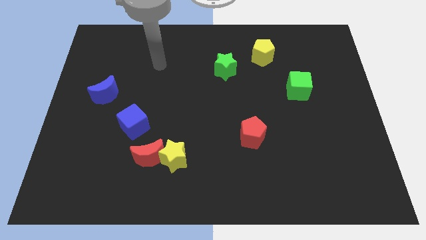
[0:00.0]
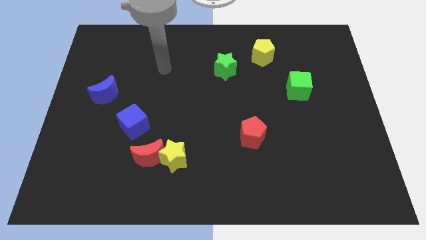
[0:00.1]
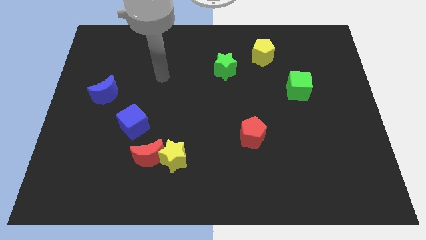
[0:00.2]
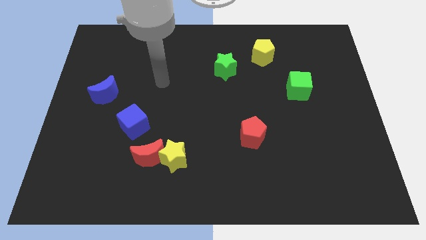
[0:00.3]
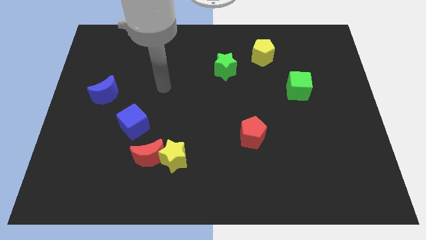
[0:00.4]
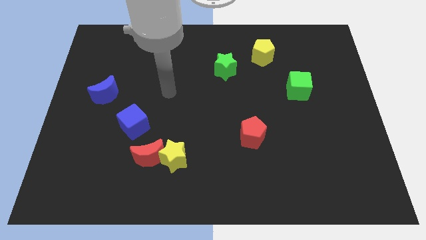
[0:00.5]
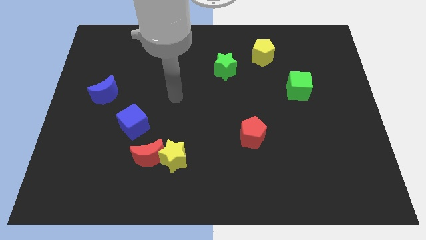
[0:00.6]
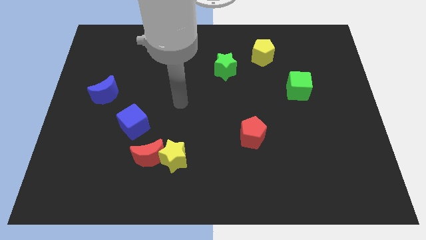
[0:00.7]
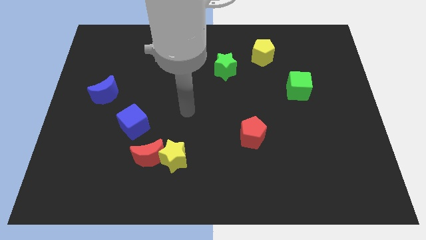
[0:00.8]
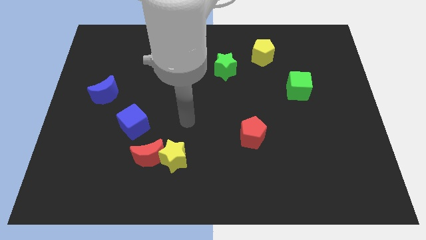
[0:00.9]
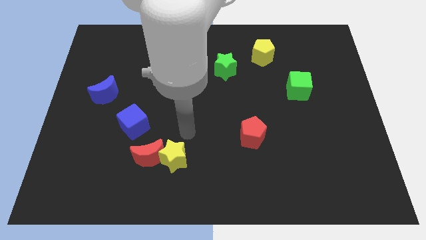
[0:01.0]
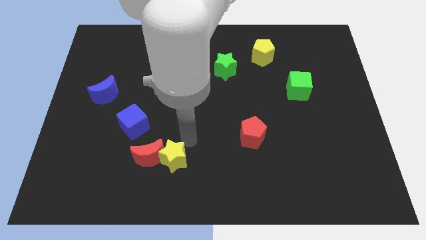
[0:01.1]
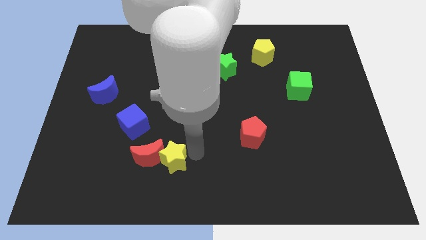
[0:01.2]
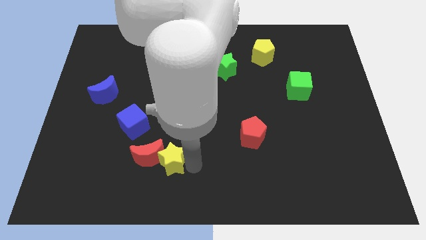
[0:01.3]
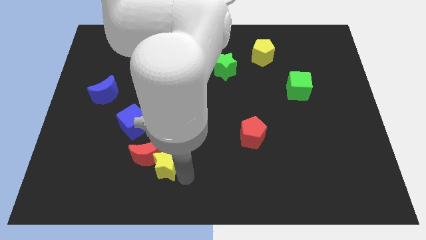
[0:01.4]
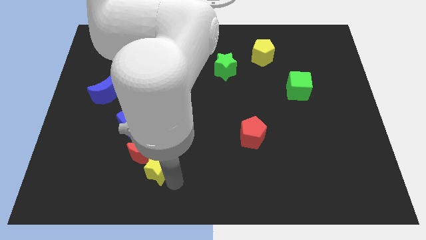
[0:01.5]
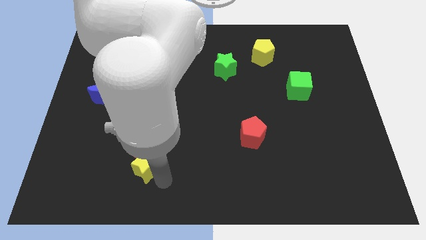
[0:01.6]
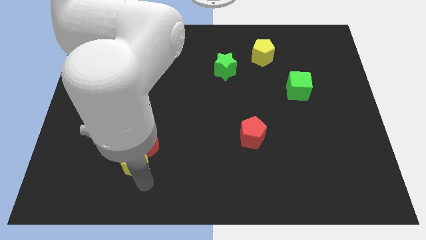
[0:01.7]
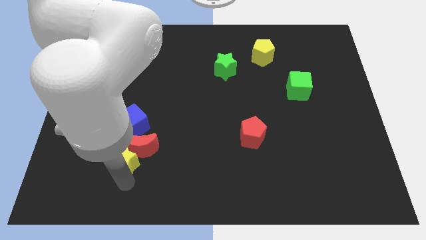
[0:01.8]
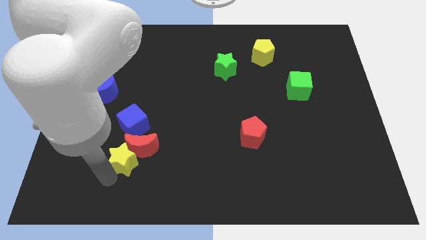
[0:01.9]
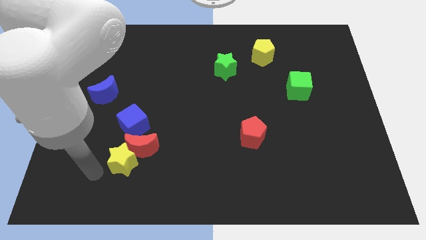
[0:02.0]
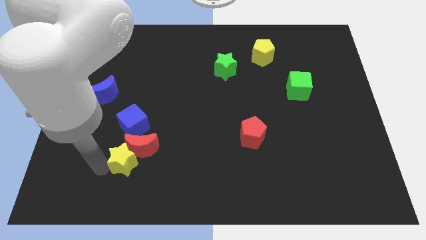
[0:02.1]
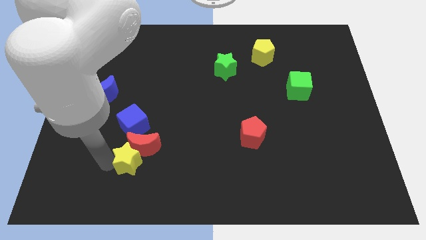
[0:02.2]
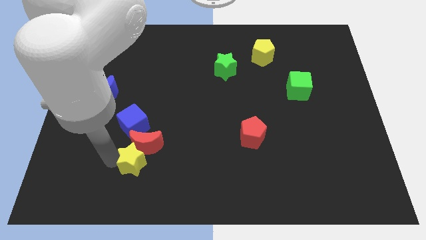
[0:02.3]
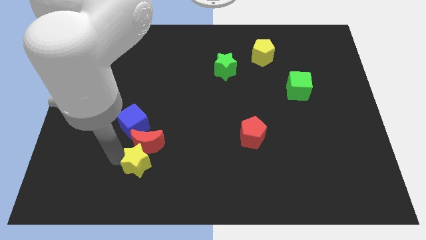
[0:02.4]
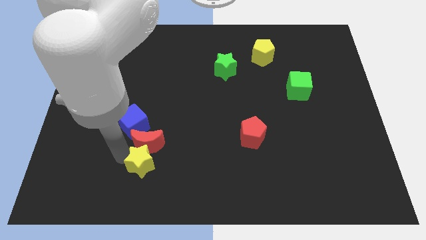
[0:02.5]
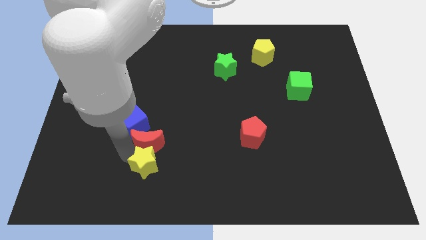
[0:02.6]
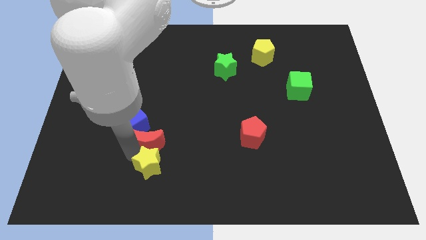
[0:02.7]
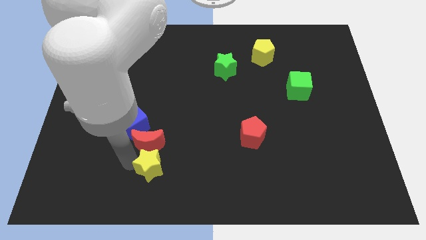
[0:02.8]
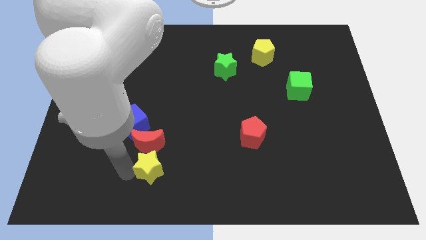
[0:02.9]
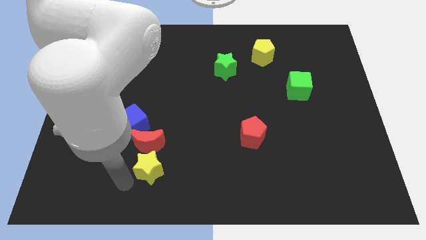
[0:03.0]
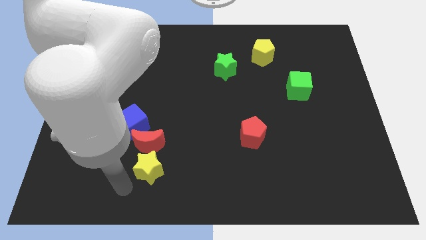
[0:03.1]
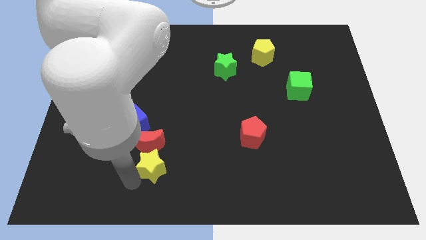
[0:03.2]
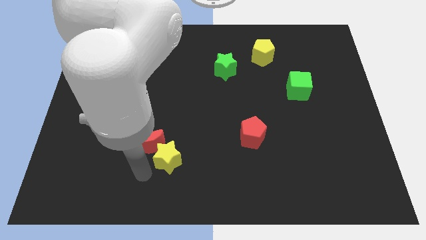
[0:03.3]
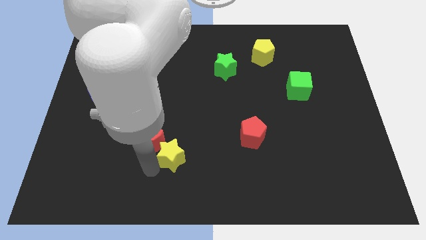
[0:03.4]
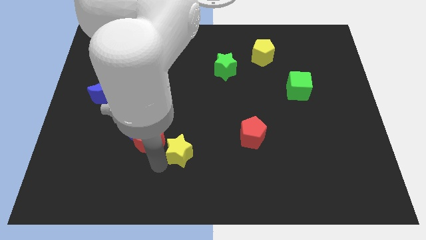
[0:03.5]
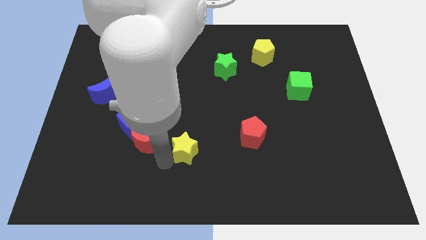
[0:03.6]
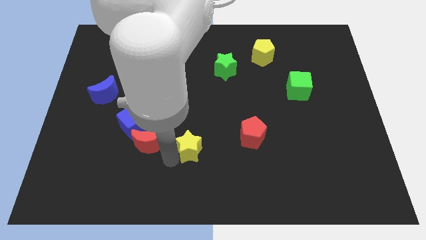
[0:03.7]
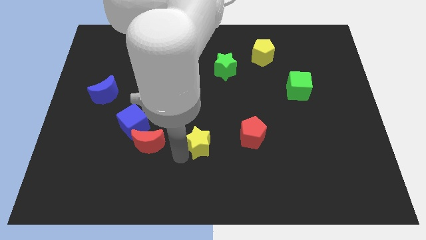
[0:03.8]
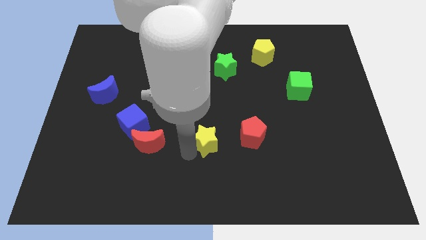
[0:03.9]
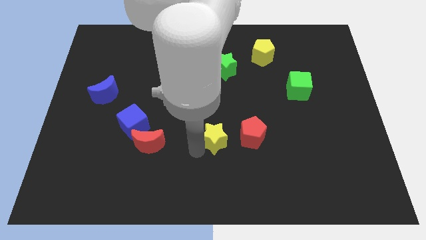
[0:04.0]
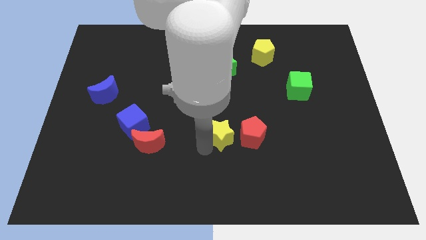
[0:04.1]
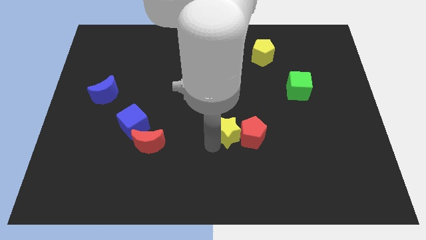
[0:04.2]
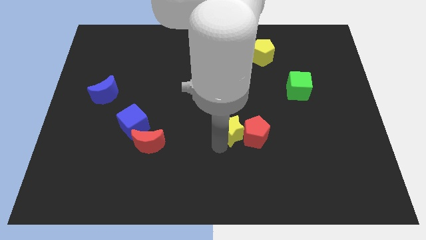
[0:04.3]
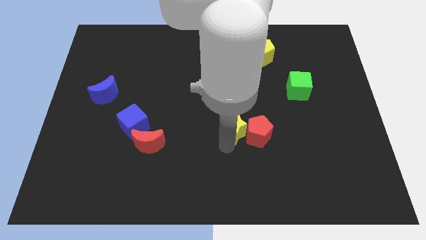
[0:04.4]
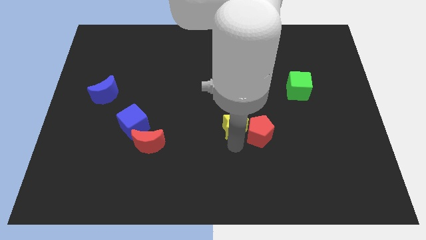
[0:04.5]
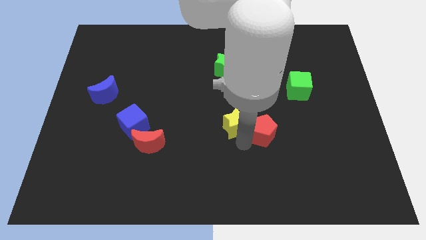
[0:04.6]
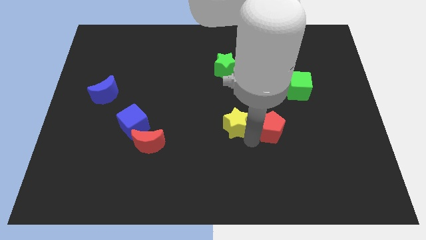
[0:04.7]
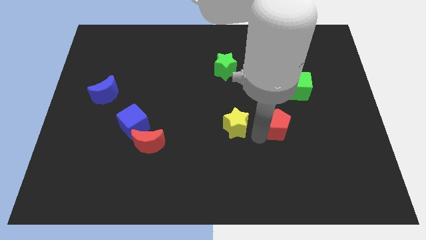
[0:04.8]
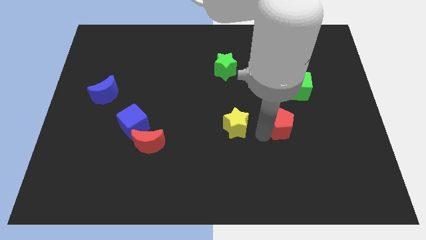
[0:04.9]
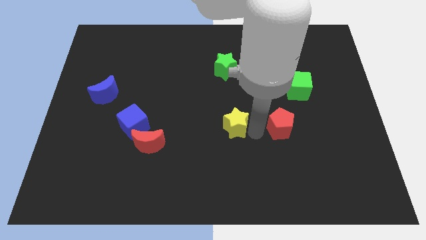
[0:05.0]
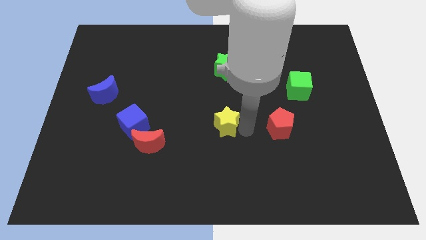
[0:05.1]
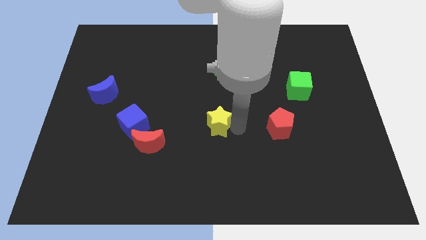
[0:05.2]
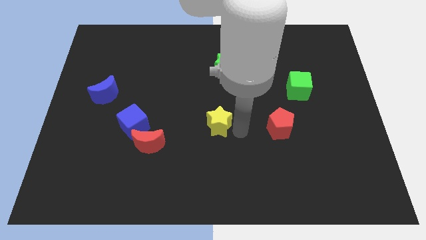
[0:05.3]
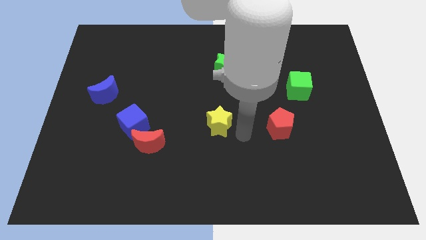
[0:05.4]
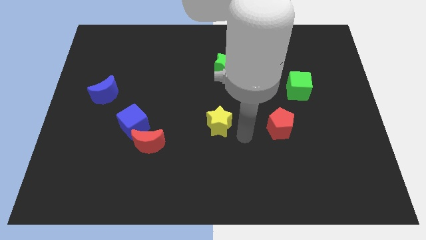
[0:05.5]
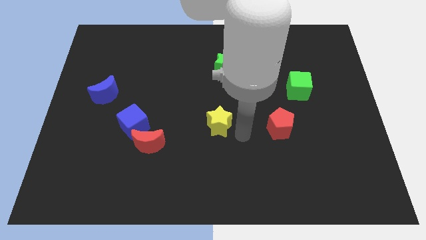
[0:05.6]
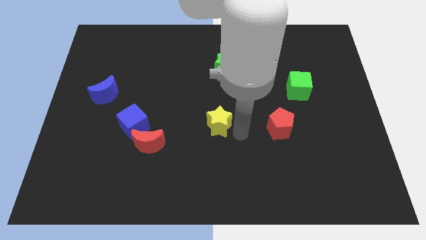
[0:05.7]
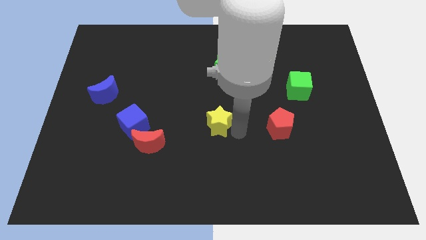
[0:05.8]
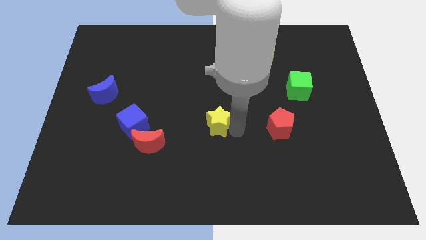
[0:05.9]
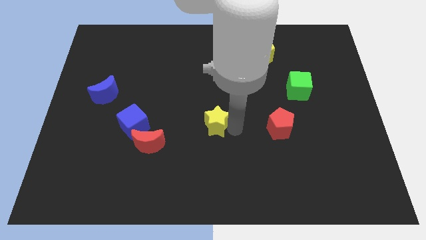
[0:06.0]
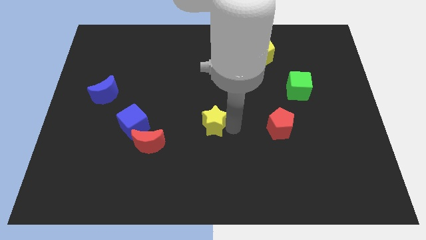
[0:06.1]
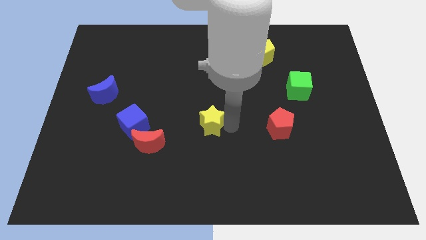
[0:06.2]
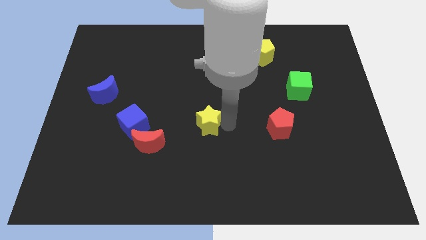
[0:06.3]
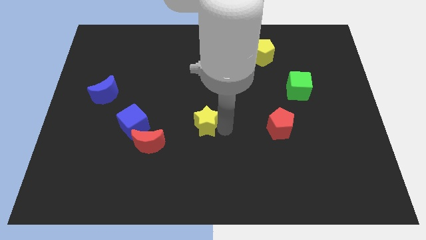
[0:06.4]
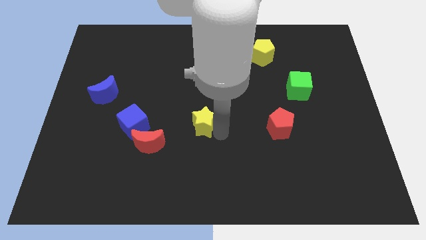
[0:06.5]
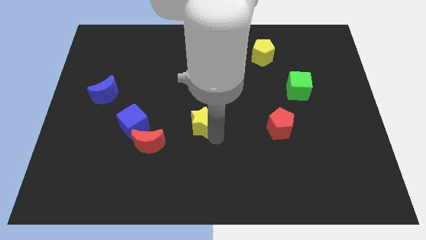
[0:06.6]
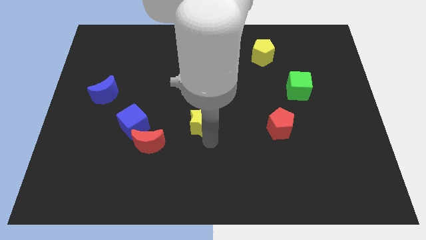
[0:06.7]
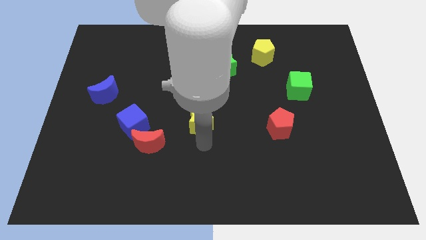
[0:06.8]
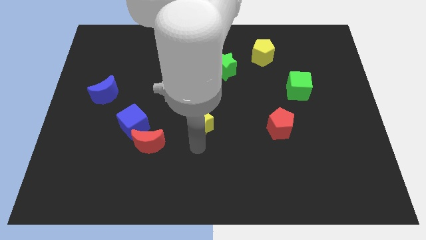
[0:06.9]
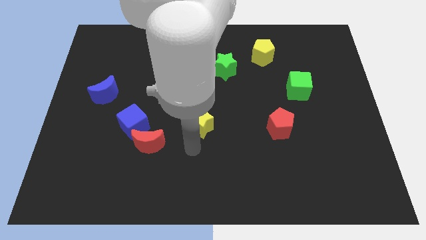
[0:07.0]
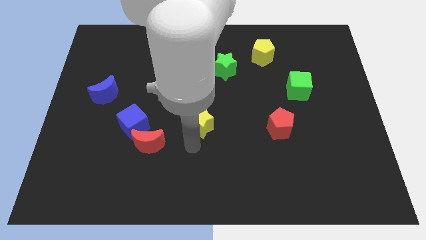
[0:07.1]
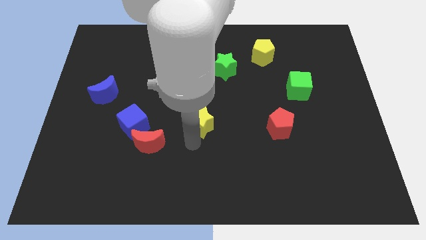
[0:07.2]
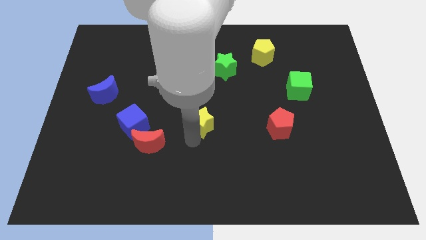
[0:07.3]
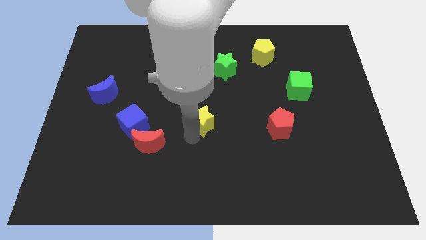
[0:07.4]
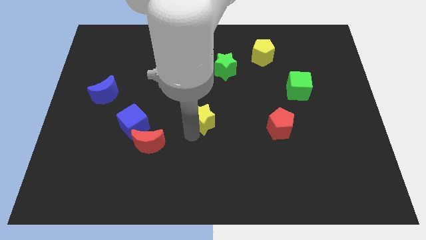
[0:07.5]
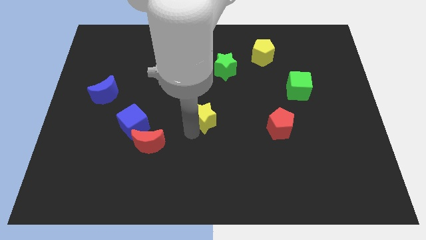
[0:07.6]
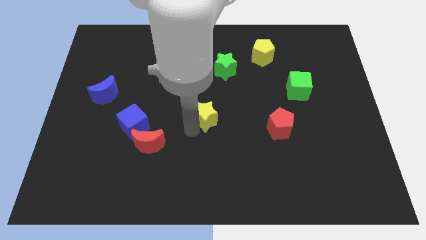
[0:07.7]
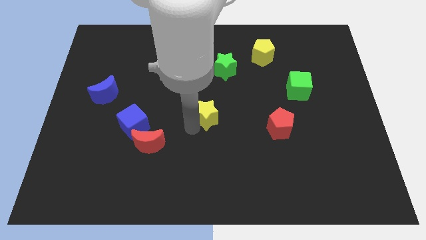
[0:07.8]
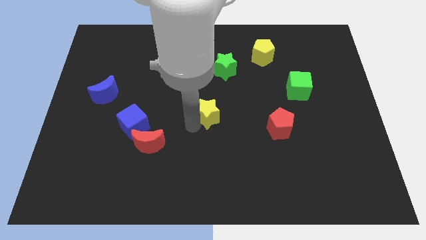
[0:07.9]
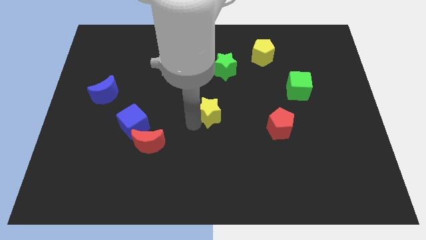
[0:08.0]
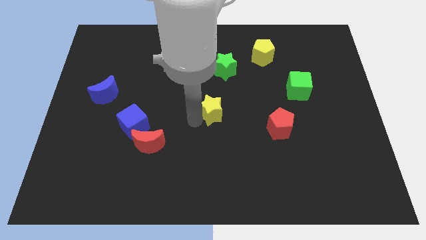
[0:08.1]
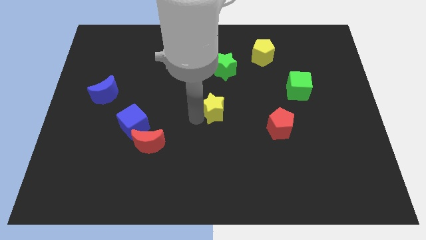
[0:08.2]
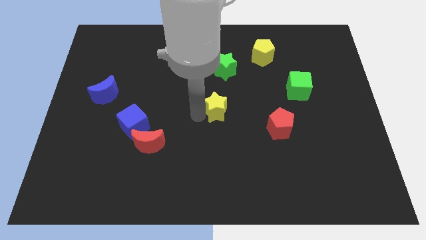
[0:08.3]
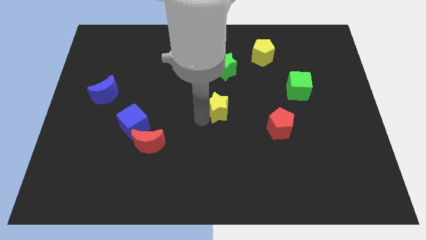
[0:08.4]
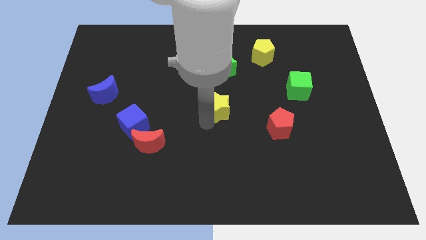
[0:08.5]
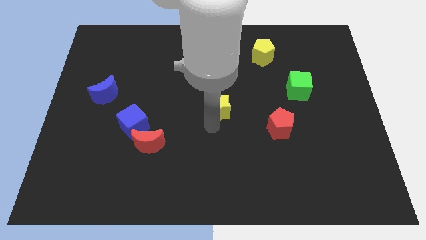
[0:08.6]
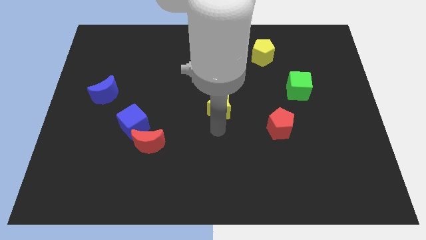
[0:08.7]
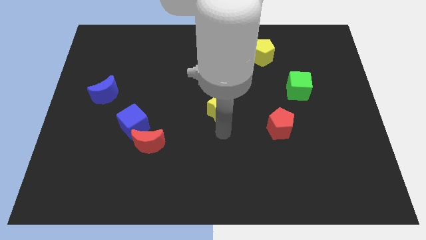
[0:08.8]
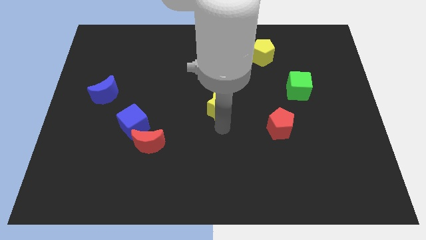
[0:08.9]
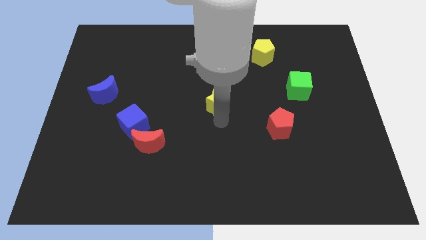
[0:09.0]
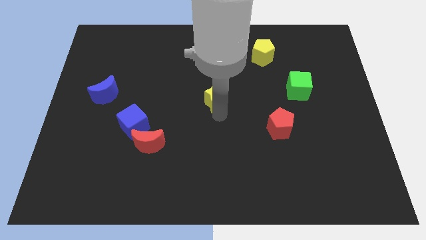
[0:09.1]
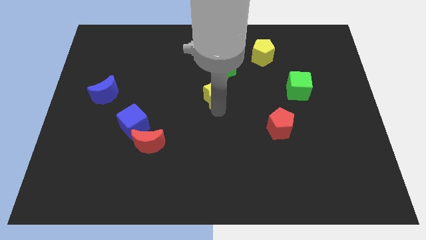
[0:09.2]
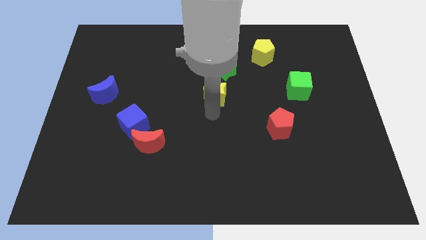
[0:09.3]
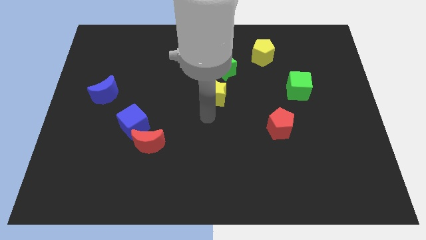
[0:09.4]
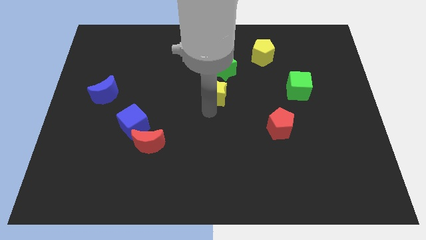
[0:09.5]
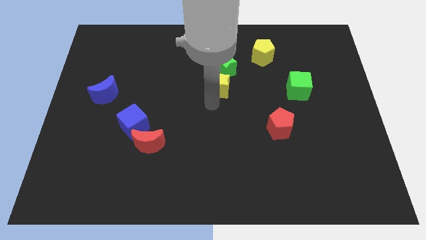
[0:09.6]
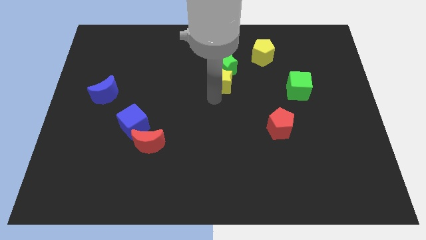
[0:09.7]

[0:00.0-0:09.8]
put the yellow star next to the green star
